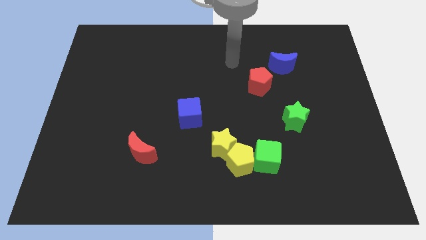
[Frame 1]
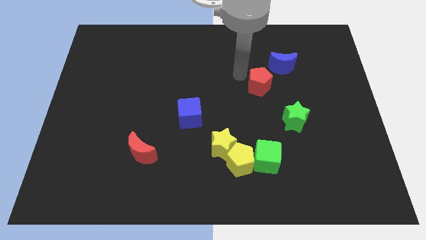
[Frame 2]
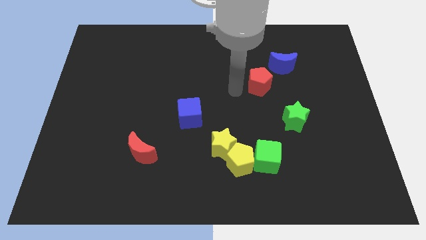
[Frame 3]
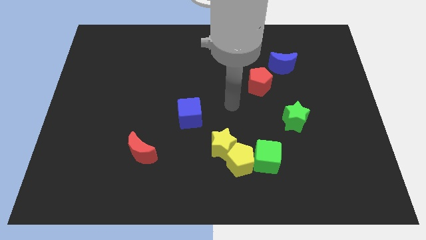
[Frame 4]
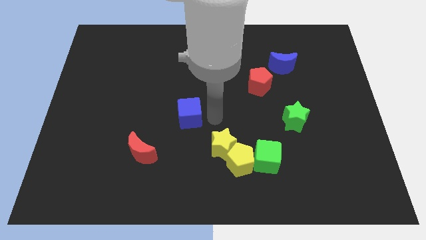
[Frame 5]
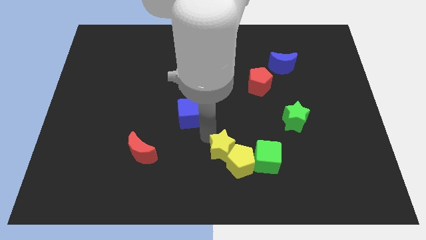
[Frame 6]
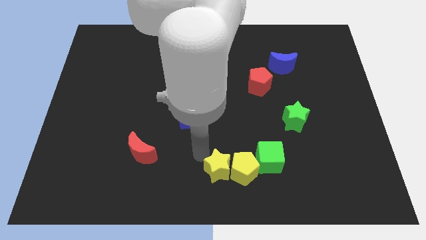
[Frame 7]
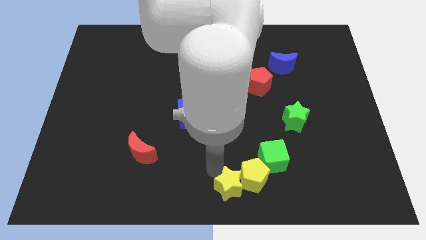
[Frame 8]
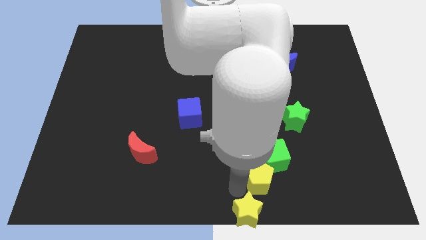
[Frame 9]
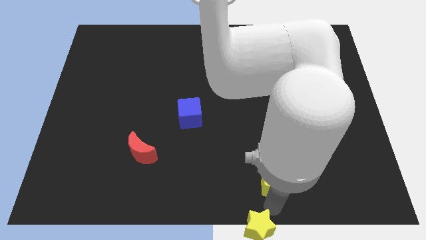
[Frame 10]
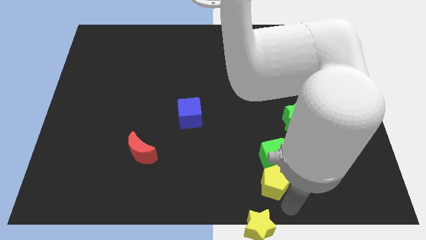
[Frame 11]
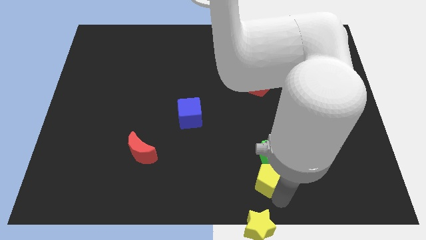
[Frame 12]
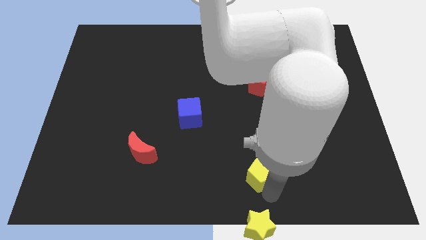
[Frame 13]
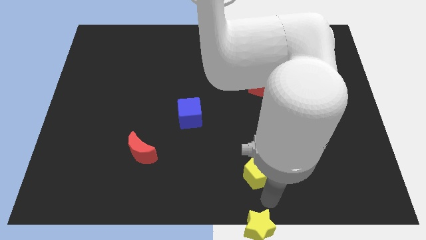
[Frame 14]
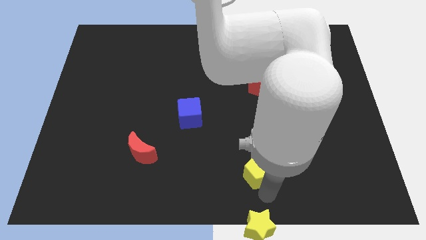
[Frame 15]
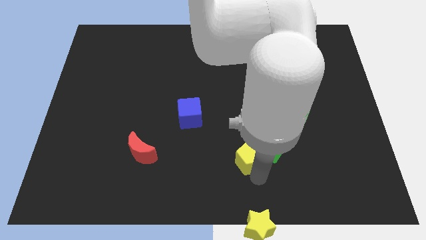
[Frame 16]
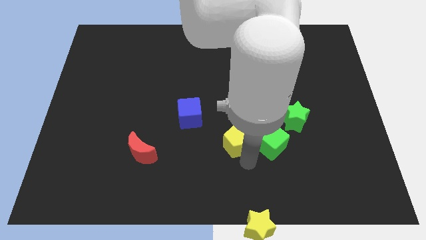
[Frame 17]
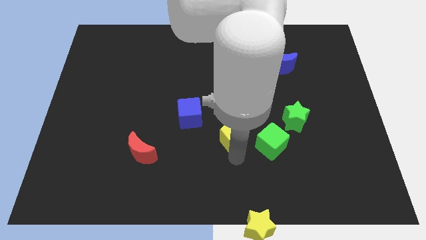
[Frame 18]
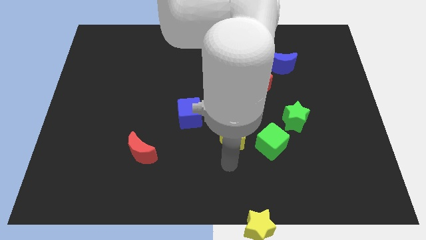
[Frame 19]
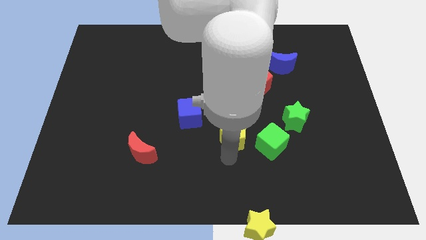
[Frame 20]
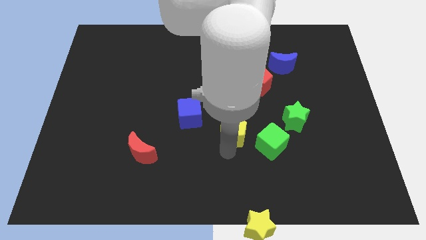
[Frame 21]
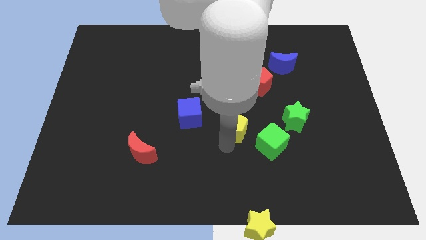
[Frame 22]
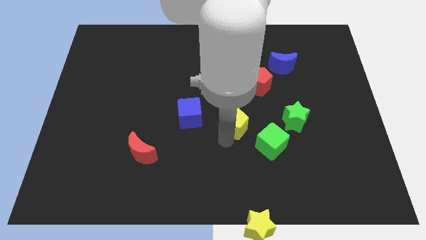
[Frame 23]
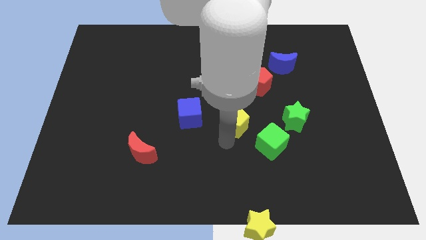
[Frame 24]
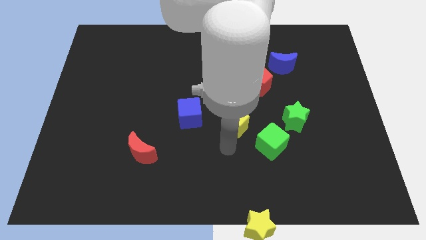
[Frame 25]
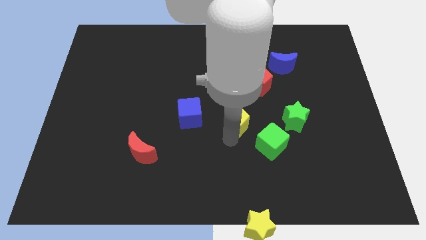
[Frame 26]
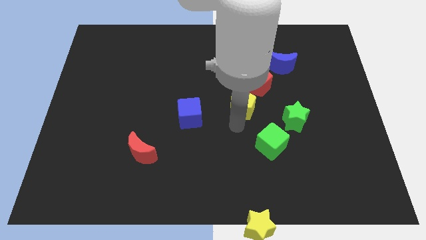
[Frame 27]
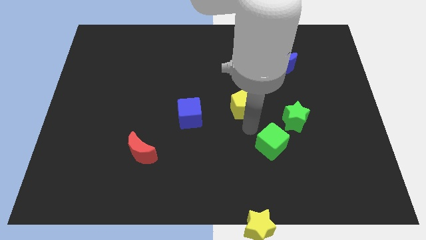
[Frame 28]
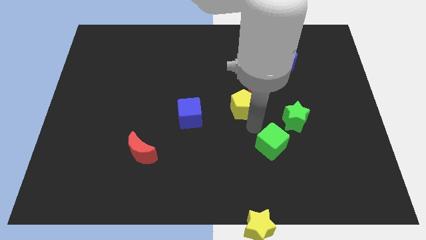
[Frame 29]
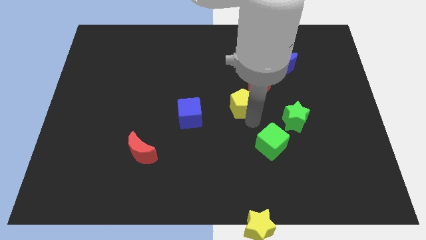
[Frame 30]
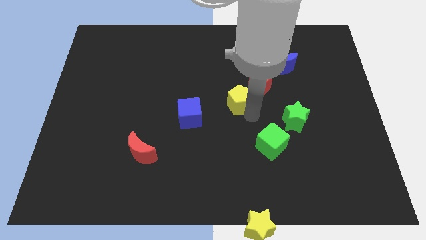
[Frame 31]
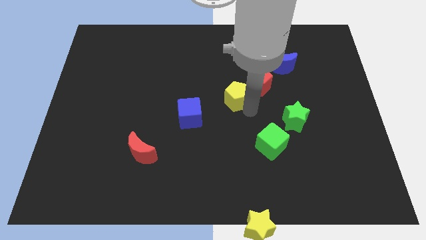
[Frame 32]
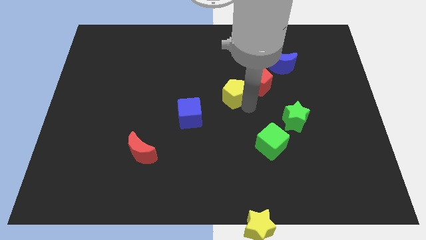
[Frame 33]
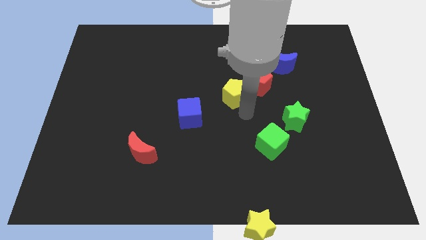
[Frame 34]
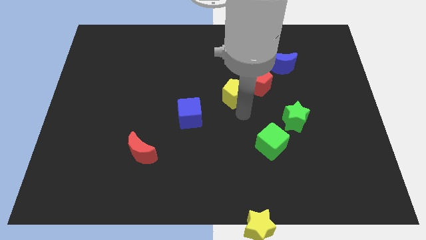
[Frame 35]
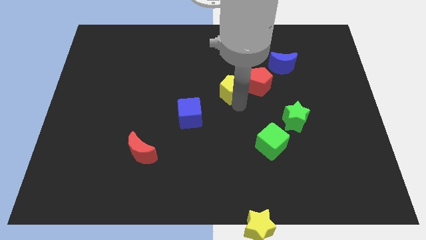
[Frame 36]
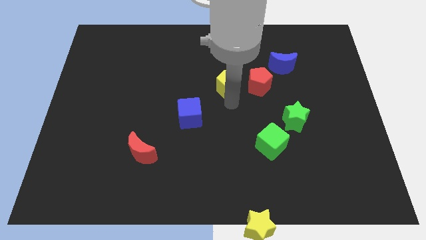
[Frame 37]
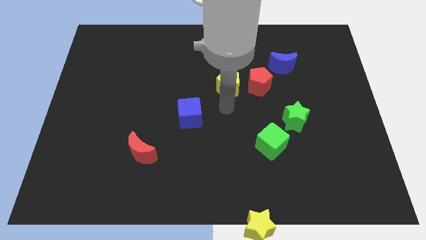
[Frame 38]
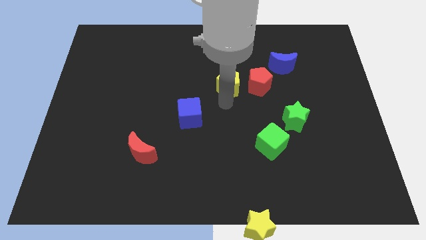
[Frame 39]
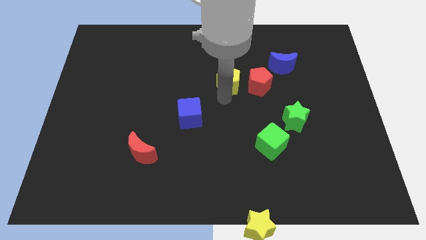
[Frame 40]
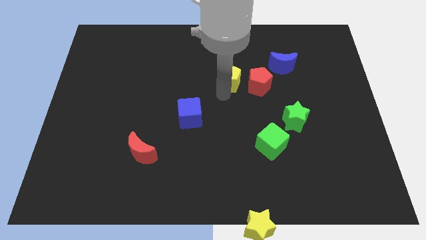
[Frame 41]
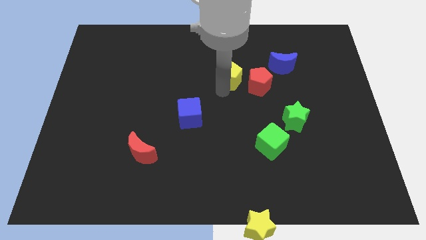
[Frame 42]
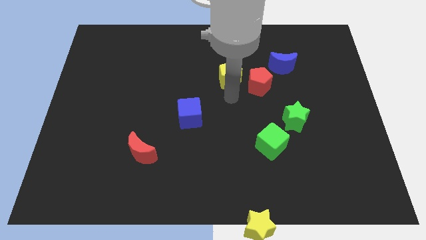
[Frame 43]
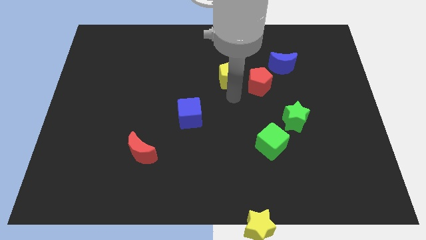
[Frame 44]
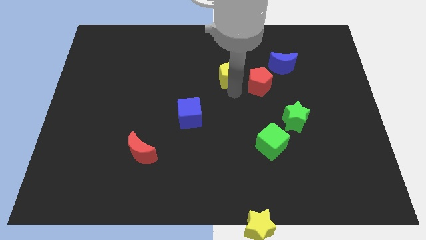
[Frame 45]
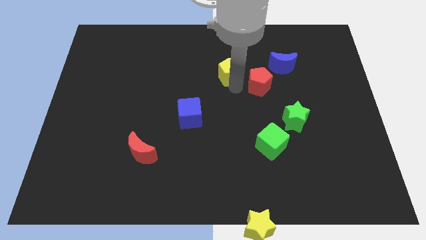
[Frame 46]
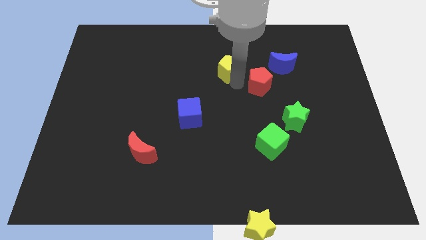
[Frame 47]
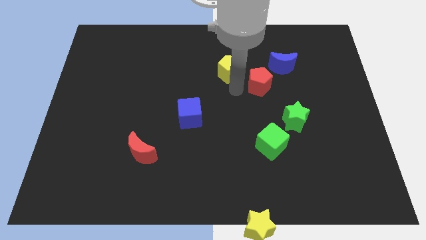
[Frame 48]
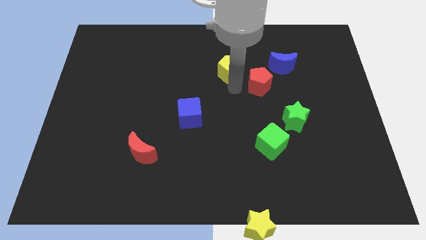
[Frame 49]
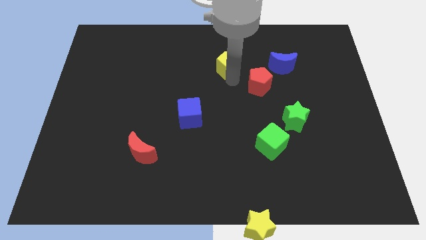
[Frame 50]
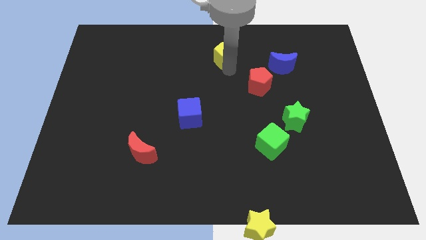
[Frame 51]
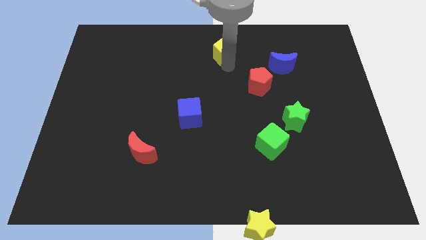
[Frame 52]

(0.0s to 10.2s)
move the yellow pentagon to the towards your base

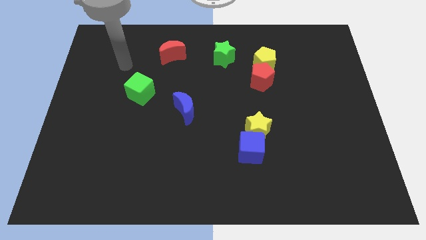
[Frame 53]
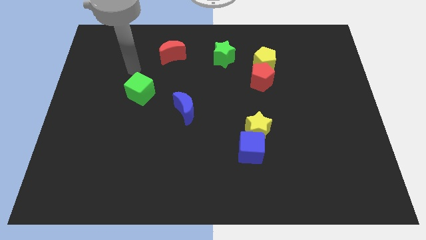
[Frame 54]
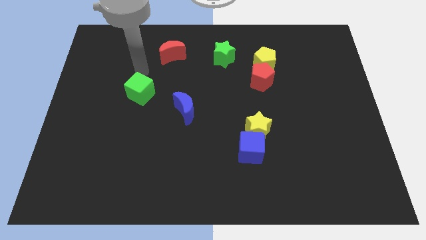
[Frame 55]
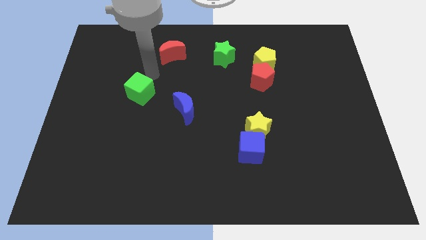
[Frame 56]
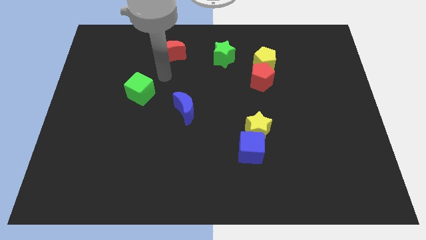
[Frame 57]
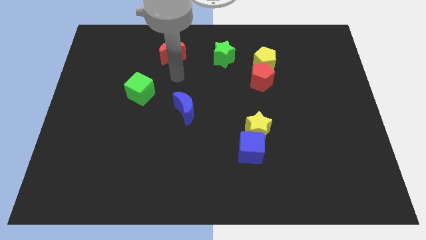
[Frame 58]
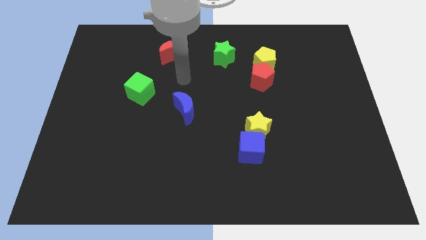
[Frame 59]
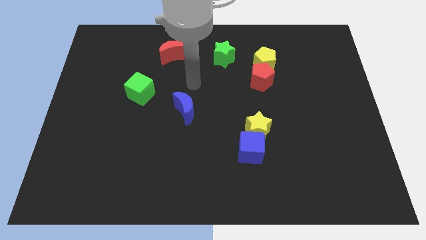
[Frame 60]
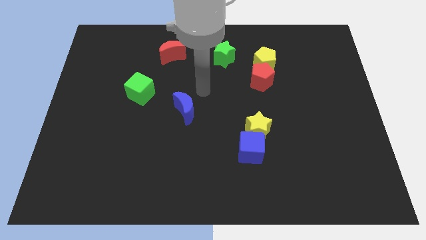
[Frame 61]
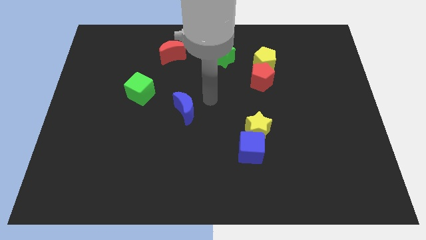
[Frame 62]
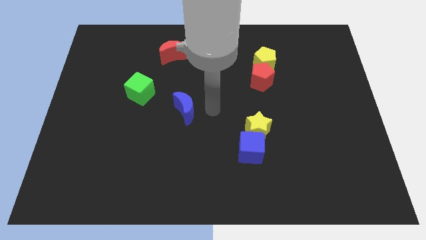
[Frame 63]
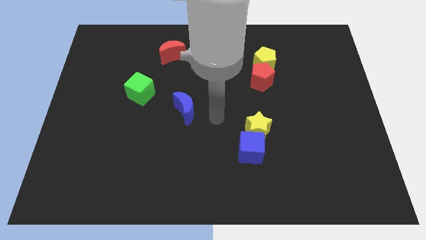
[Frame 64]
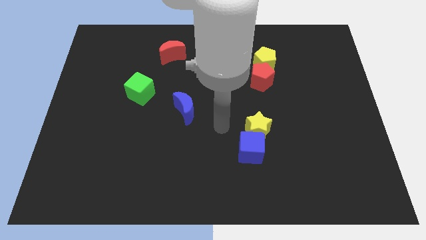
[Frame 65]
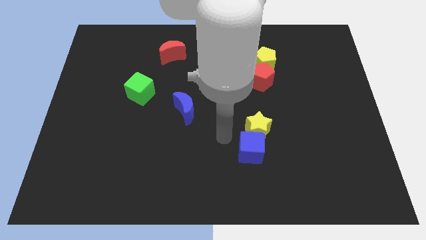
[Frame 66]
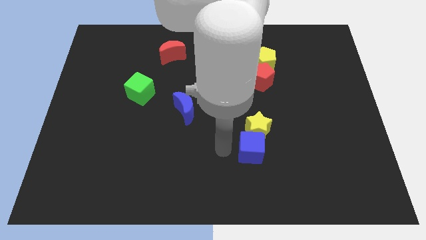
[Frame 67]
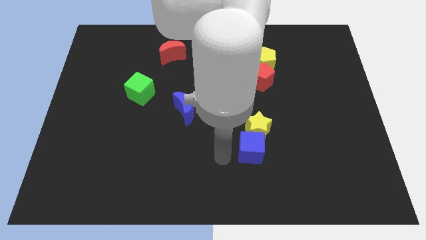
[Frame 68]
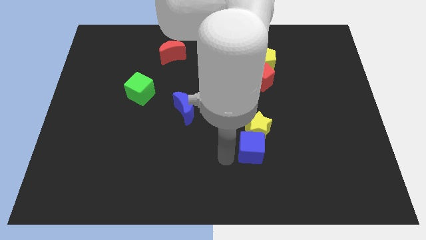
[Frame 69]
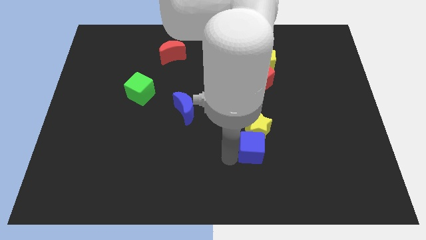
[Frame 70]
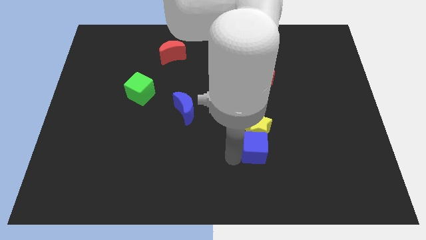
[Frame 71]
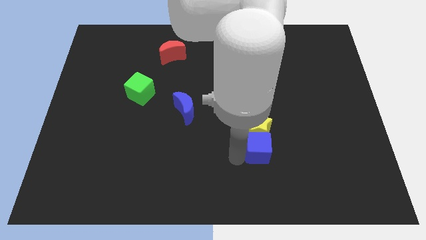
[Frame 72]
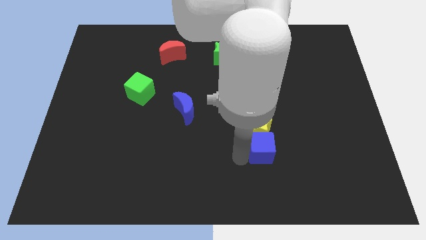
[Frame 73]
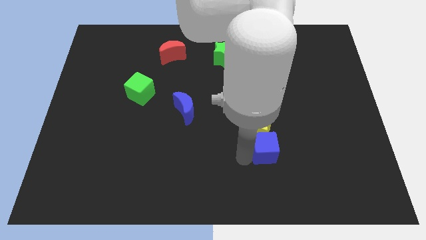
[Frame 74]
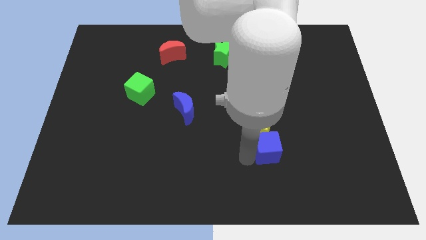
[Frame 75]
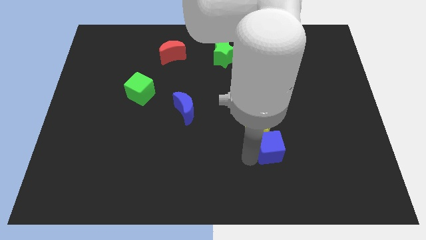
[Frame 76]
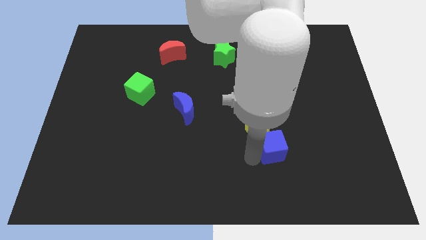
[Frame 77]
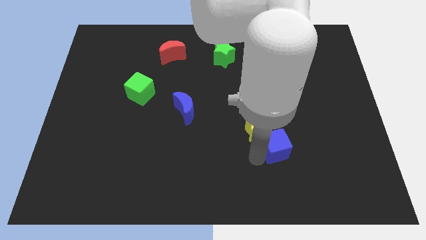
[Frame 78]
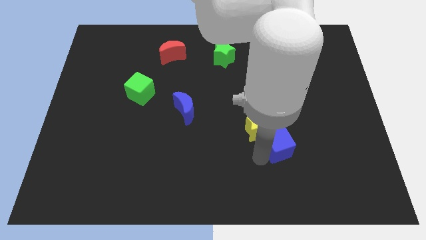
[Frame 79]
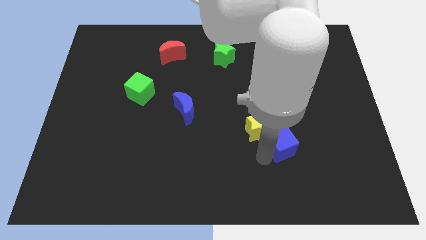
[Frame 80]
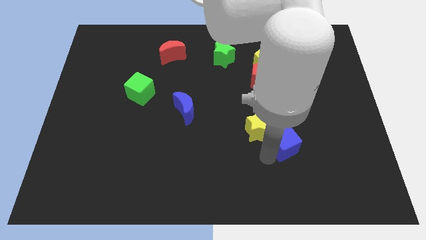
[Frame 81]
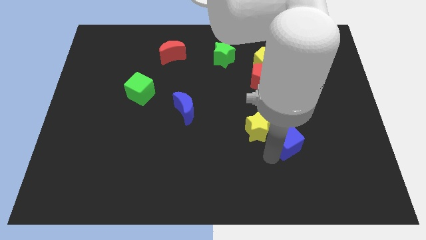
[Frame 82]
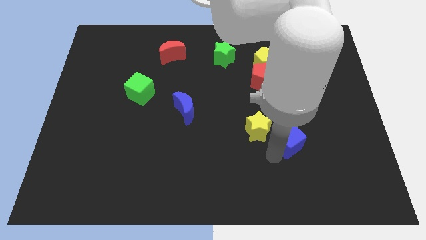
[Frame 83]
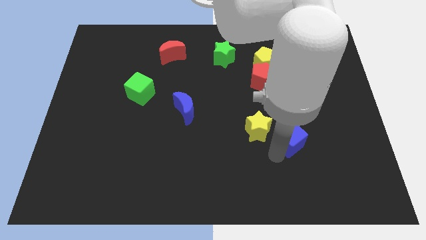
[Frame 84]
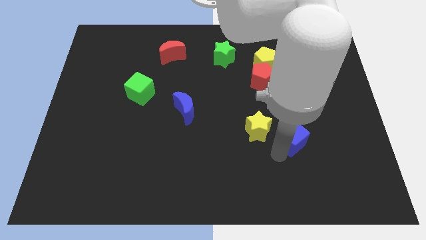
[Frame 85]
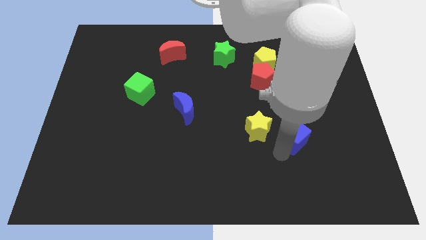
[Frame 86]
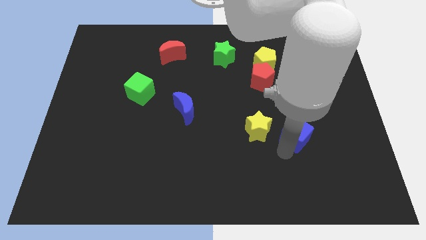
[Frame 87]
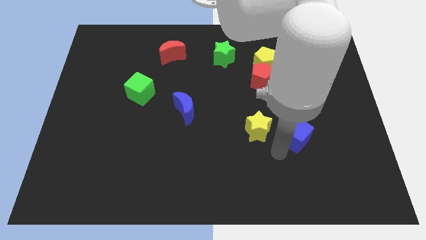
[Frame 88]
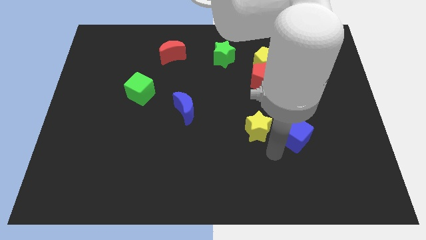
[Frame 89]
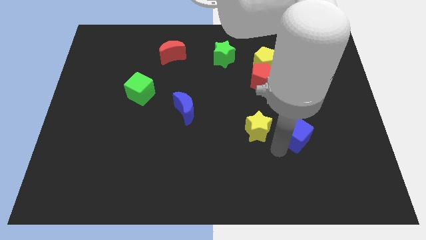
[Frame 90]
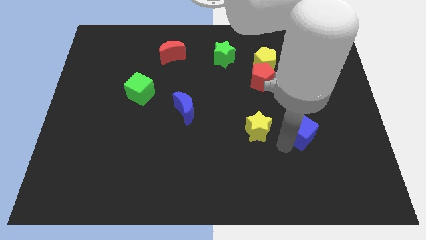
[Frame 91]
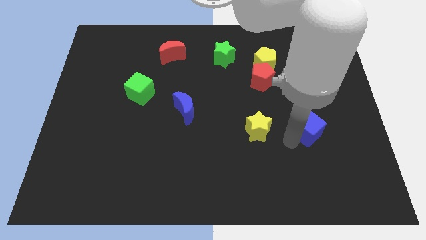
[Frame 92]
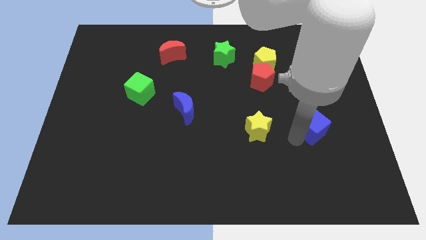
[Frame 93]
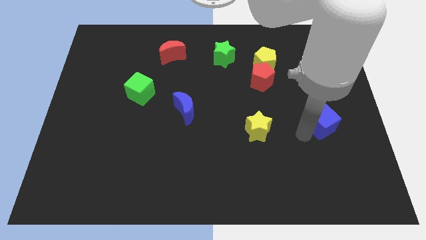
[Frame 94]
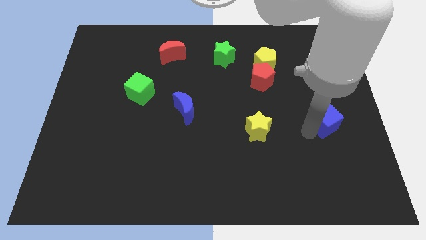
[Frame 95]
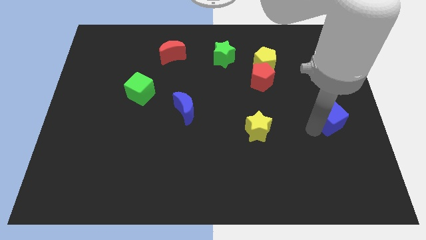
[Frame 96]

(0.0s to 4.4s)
put the blue cube to the center right
